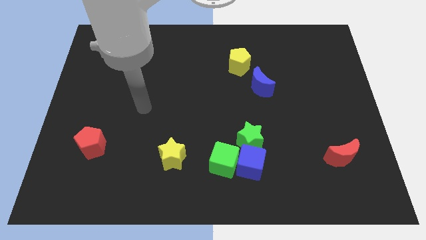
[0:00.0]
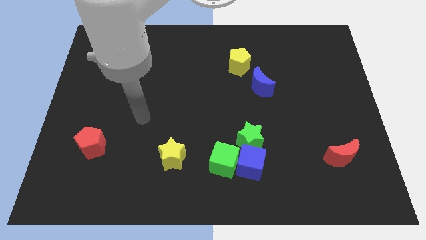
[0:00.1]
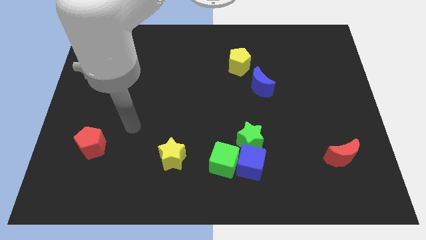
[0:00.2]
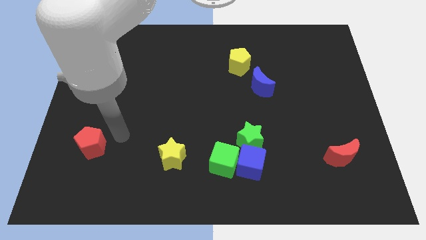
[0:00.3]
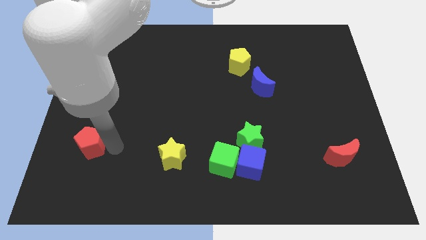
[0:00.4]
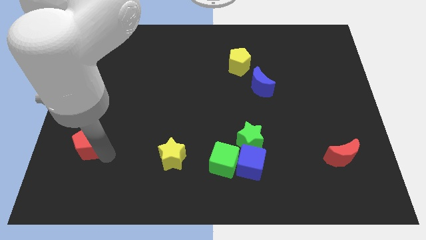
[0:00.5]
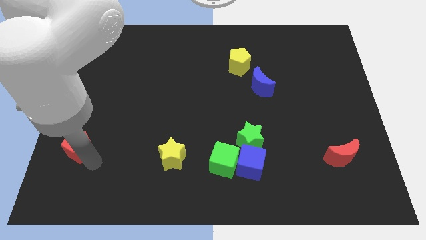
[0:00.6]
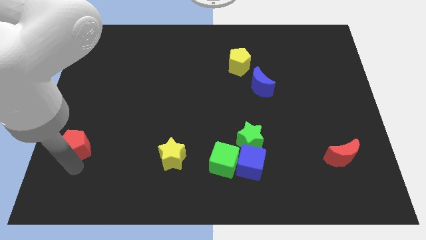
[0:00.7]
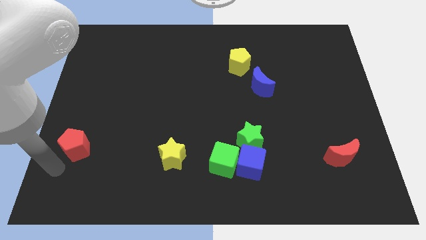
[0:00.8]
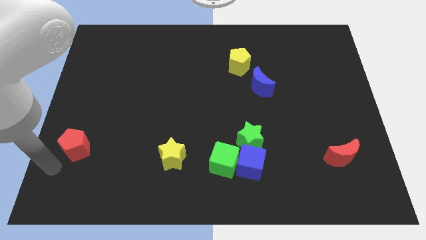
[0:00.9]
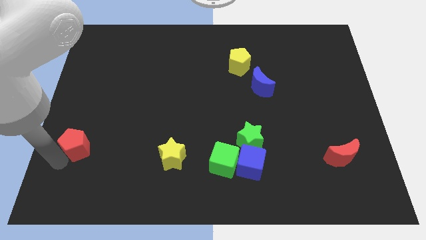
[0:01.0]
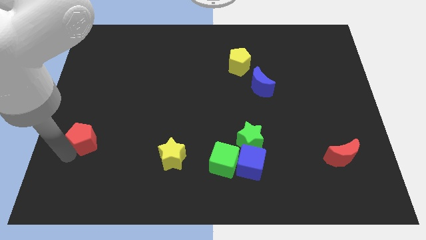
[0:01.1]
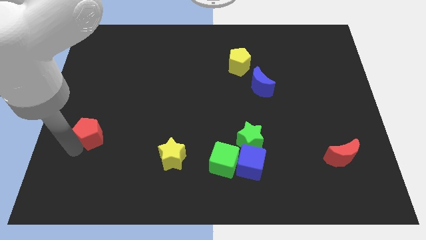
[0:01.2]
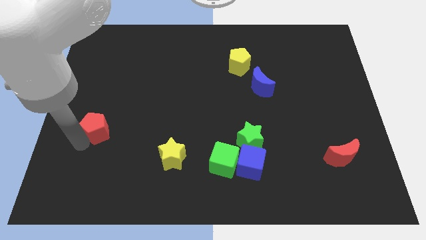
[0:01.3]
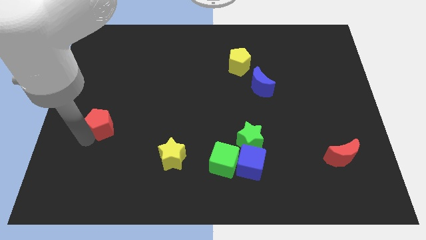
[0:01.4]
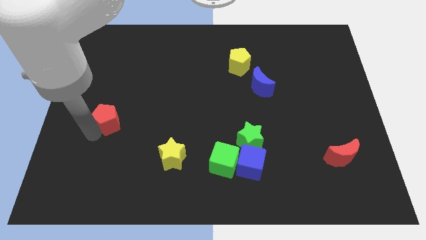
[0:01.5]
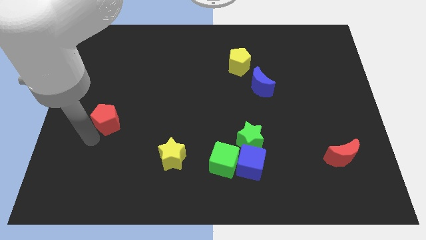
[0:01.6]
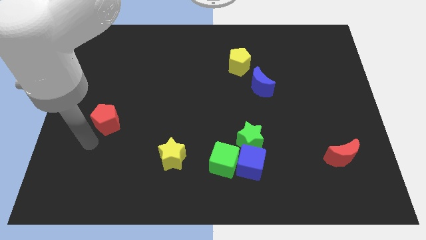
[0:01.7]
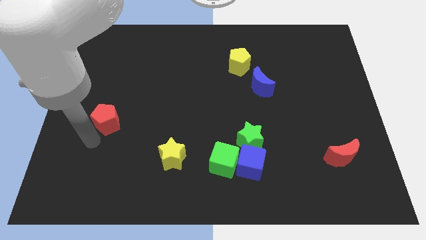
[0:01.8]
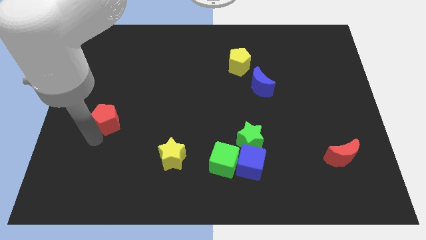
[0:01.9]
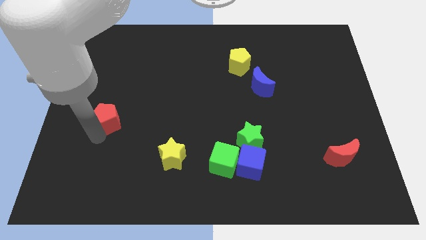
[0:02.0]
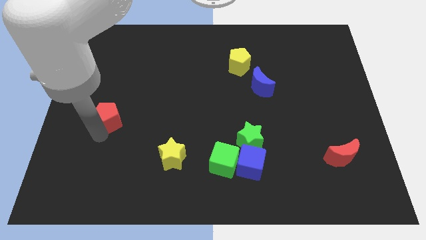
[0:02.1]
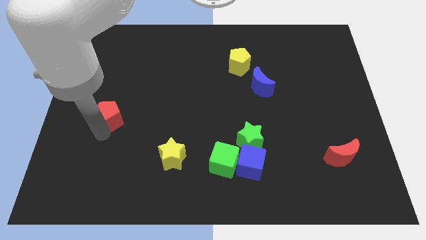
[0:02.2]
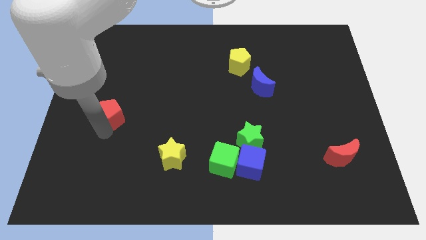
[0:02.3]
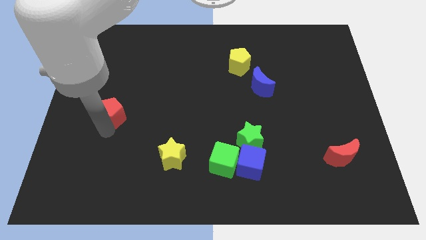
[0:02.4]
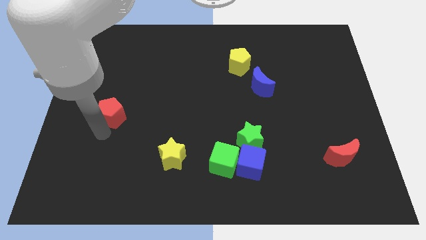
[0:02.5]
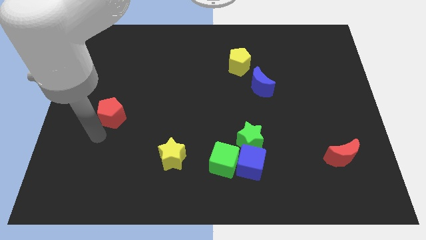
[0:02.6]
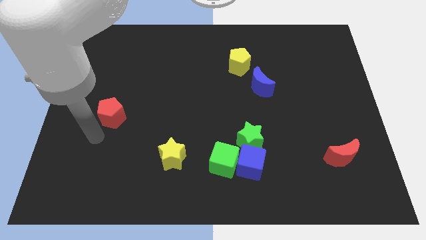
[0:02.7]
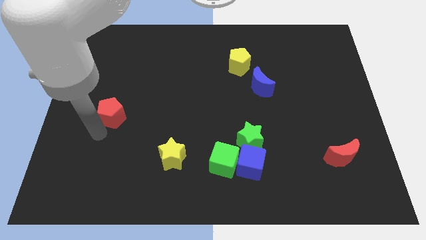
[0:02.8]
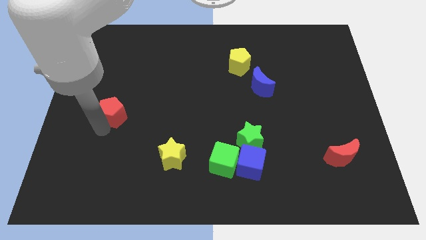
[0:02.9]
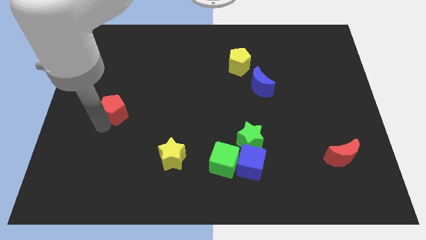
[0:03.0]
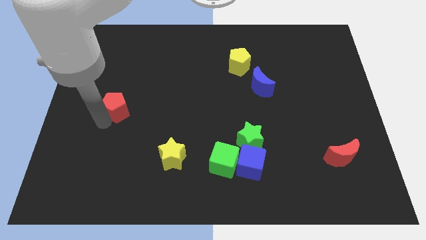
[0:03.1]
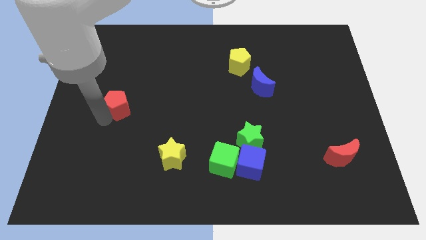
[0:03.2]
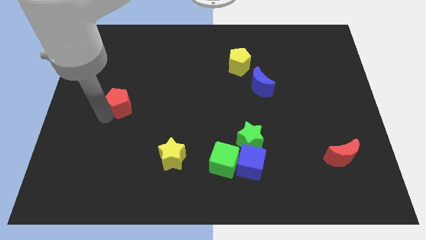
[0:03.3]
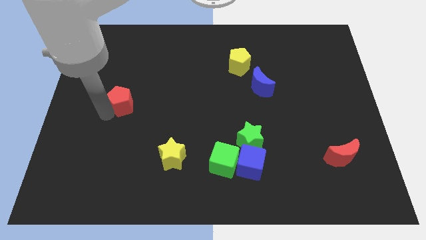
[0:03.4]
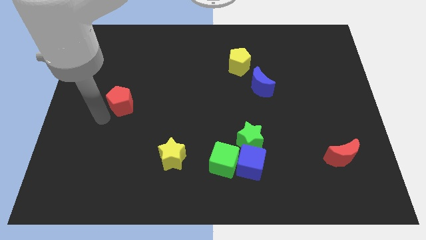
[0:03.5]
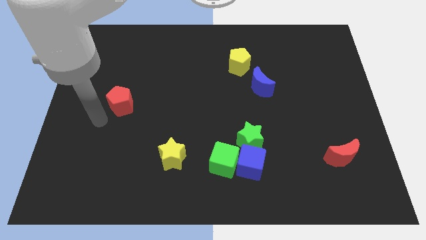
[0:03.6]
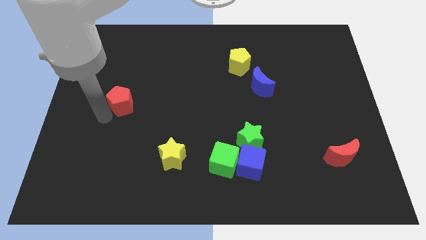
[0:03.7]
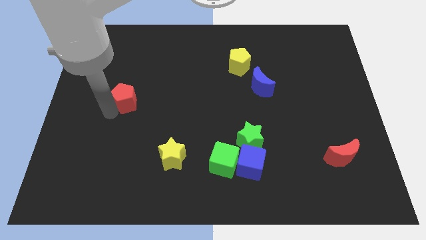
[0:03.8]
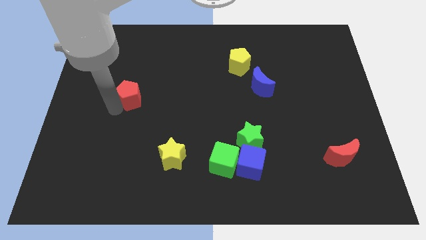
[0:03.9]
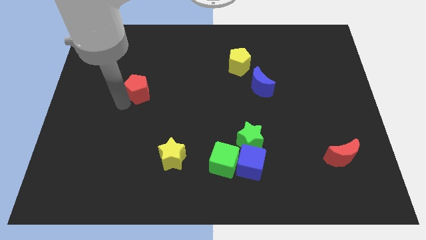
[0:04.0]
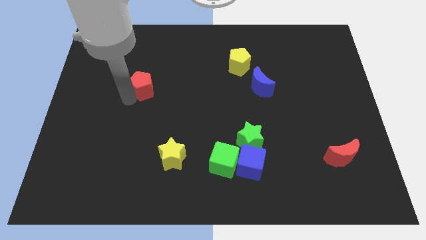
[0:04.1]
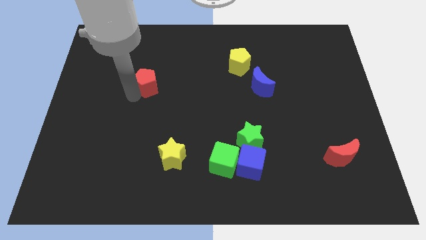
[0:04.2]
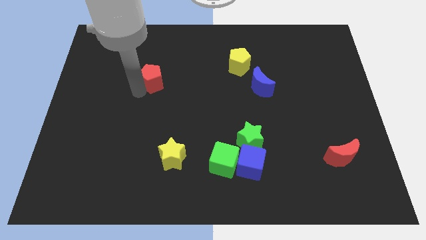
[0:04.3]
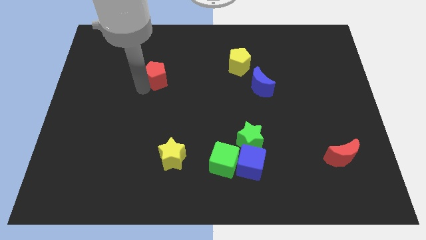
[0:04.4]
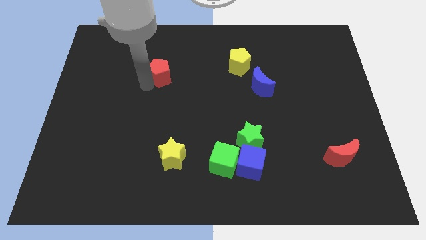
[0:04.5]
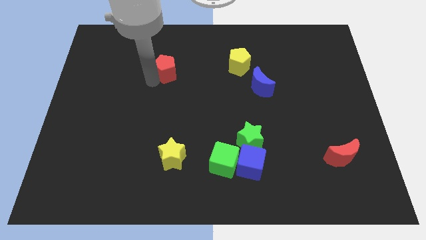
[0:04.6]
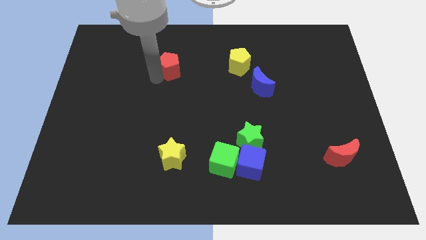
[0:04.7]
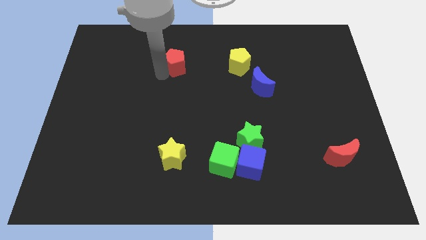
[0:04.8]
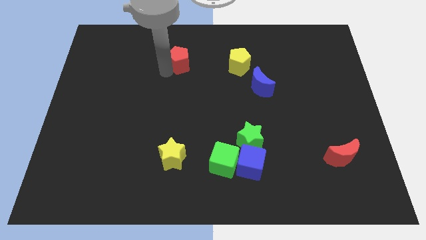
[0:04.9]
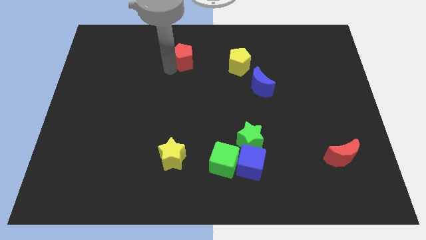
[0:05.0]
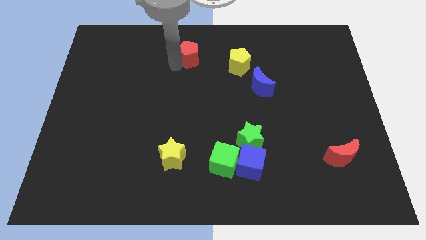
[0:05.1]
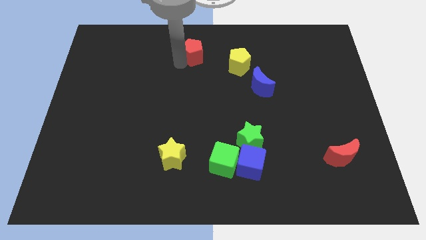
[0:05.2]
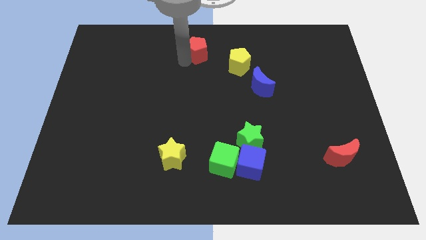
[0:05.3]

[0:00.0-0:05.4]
move the red pentagon to the top
